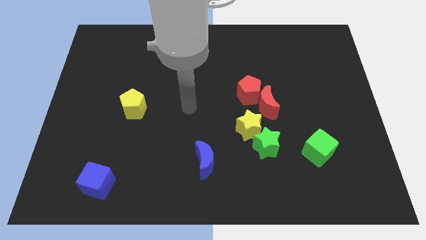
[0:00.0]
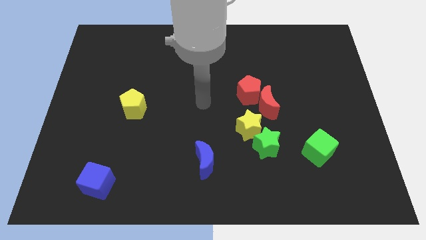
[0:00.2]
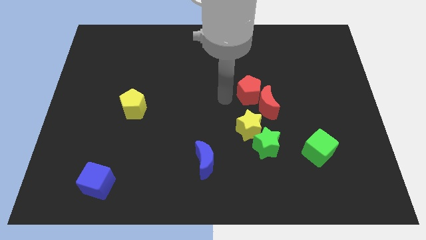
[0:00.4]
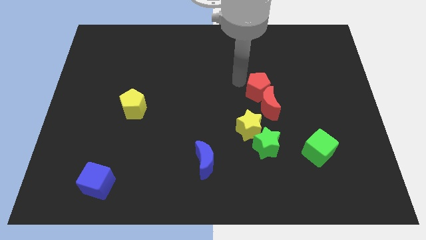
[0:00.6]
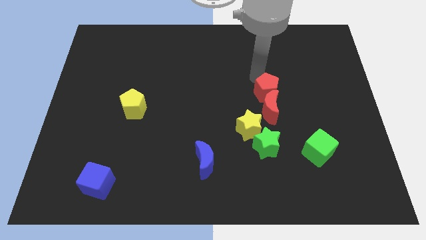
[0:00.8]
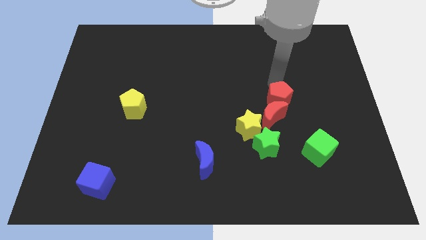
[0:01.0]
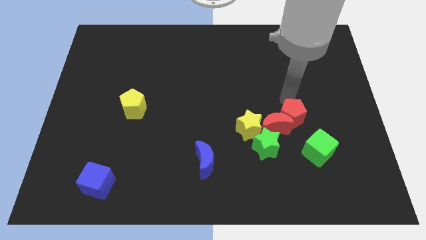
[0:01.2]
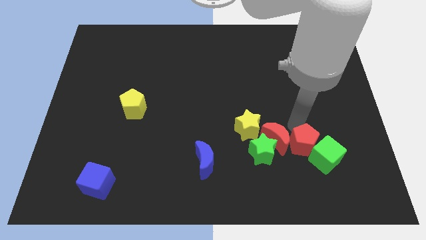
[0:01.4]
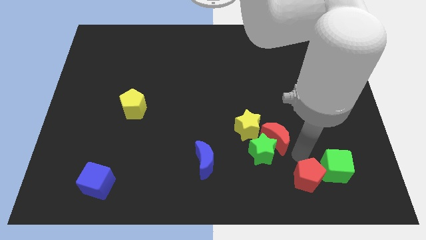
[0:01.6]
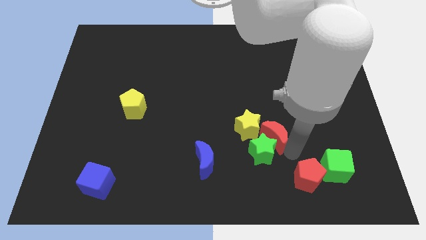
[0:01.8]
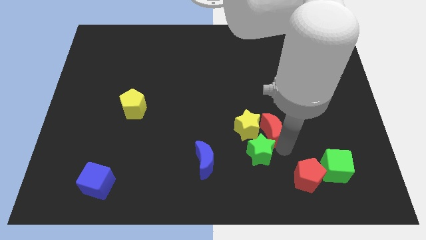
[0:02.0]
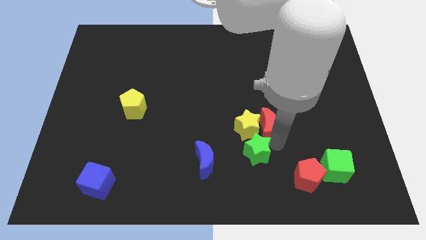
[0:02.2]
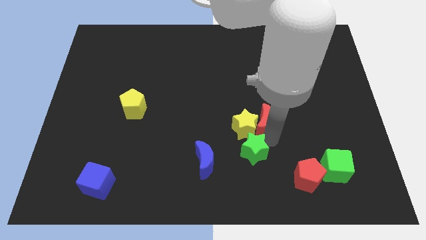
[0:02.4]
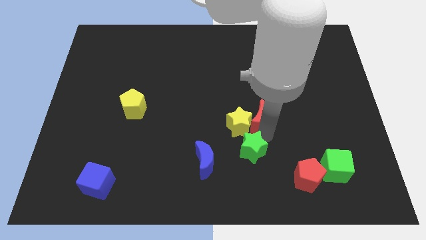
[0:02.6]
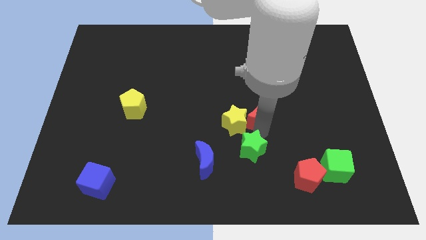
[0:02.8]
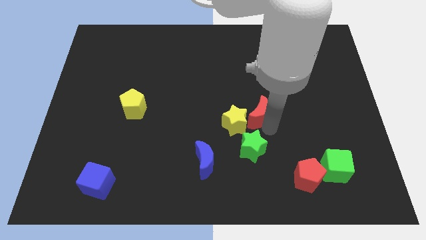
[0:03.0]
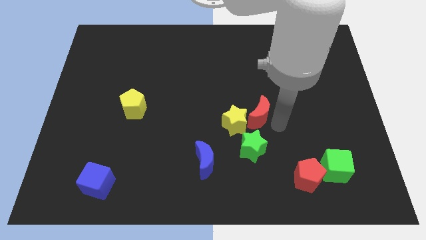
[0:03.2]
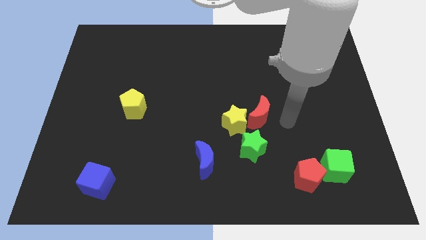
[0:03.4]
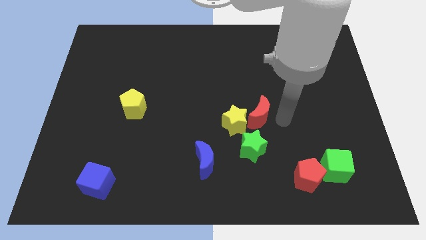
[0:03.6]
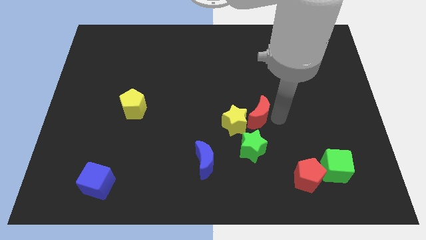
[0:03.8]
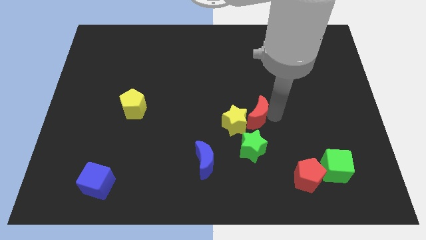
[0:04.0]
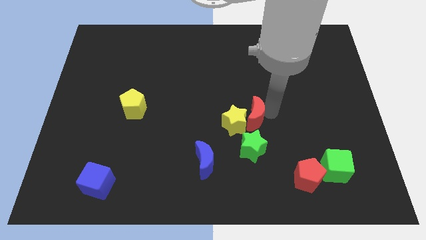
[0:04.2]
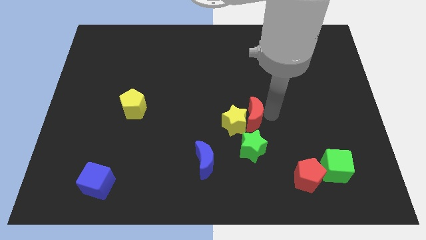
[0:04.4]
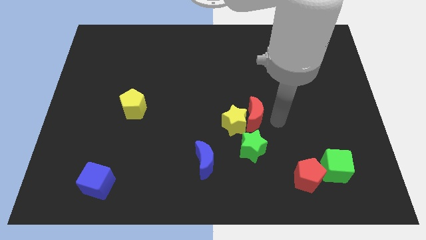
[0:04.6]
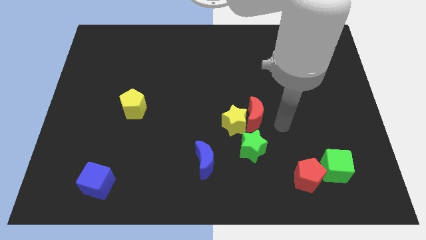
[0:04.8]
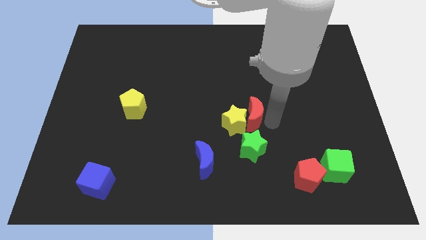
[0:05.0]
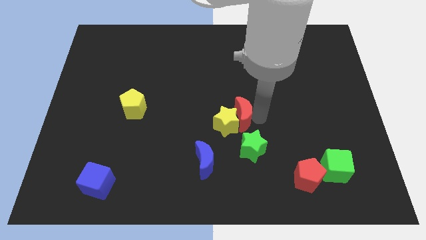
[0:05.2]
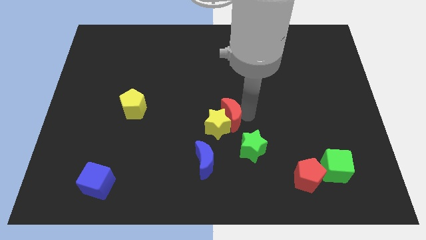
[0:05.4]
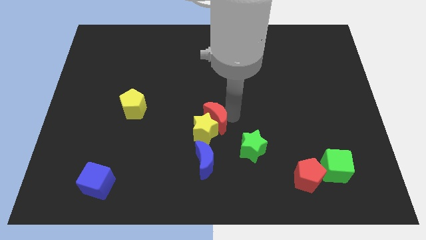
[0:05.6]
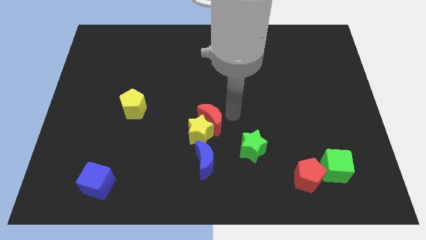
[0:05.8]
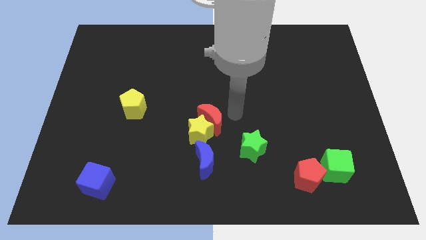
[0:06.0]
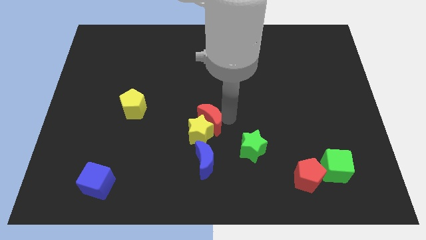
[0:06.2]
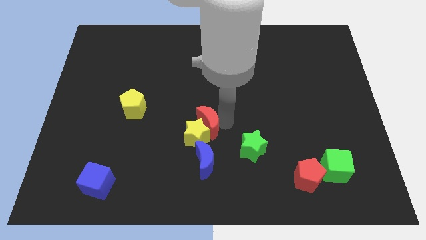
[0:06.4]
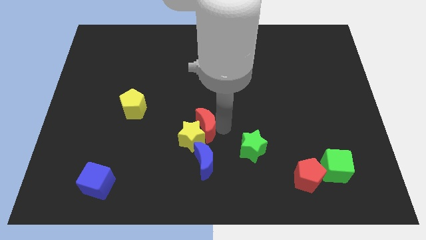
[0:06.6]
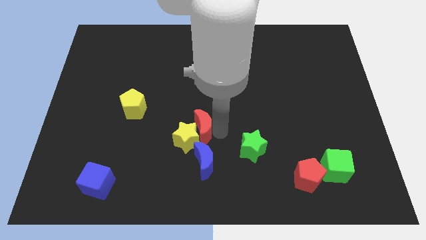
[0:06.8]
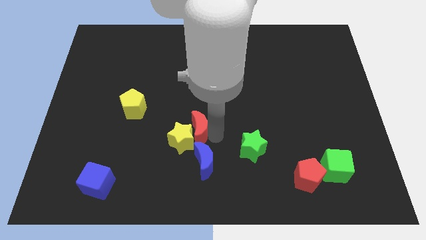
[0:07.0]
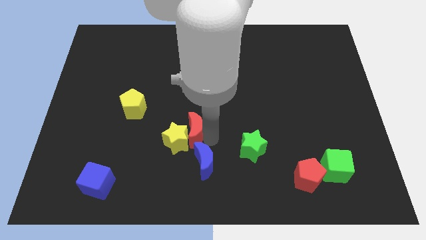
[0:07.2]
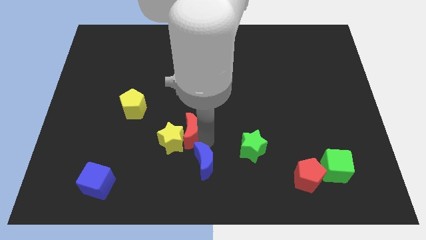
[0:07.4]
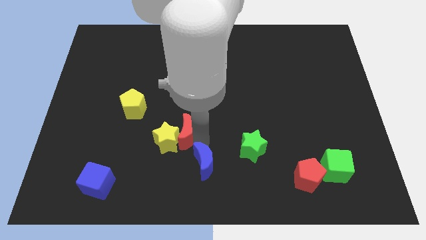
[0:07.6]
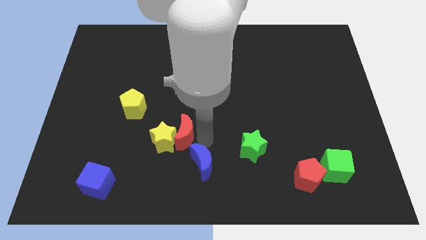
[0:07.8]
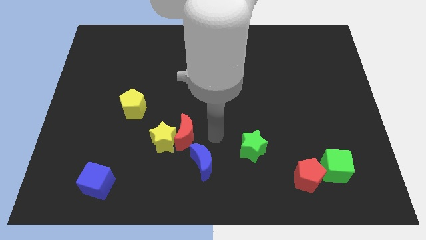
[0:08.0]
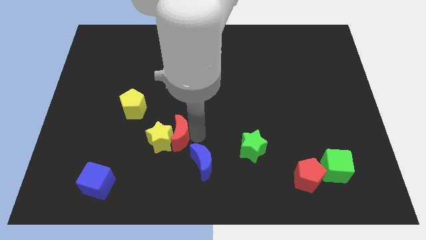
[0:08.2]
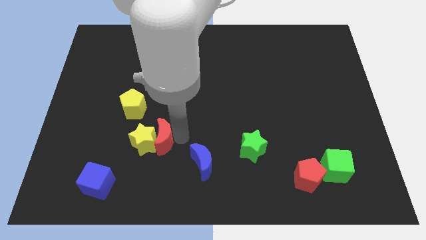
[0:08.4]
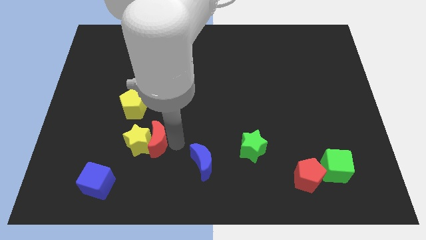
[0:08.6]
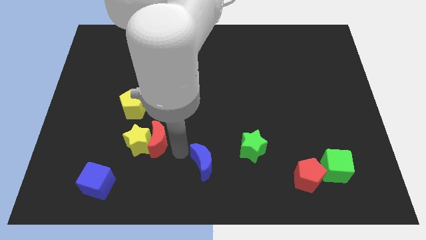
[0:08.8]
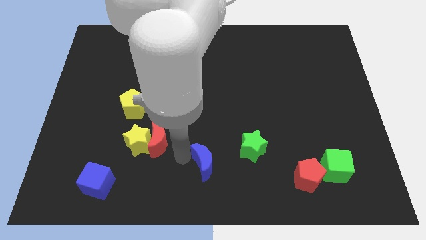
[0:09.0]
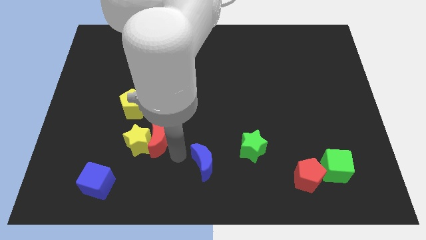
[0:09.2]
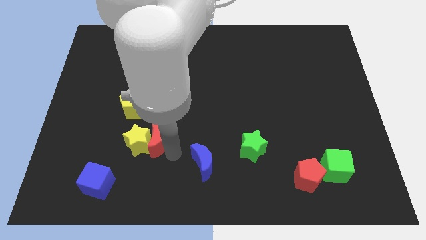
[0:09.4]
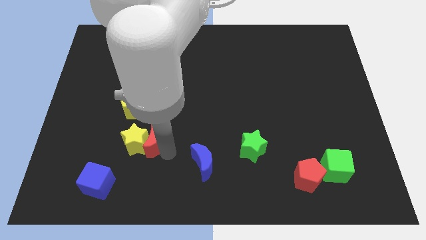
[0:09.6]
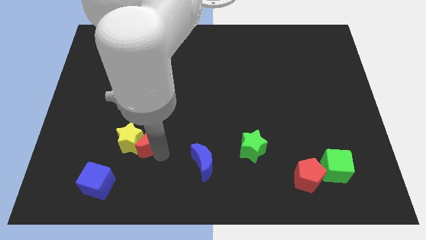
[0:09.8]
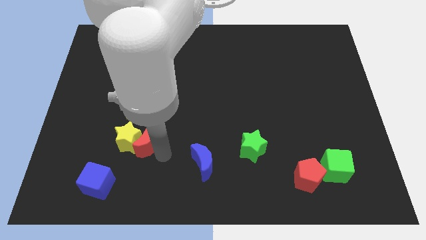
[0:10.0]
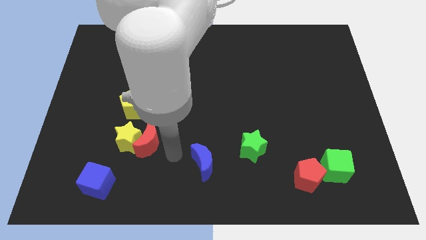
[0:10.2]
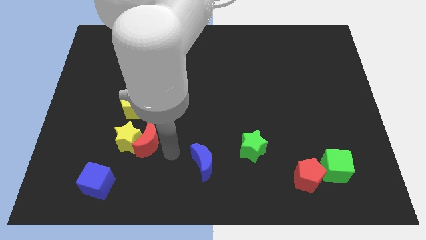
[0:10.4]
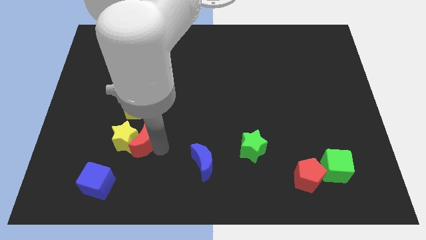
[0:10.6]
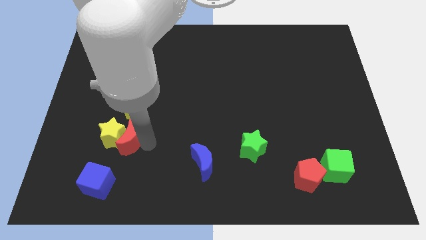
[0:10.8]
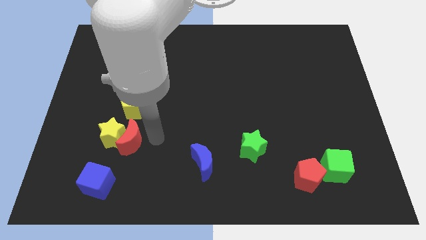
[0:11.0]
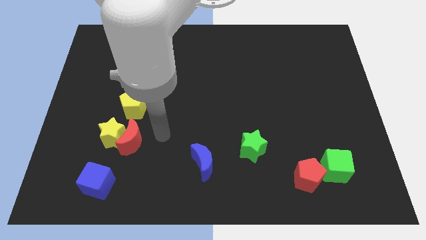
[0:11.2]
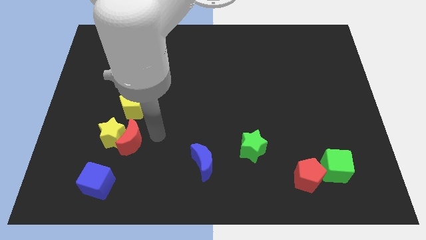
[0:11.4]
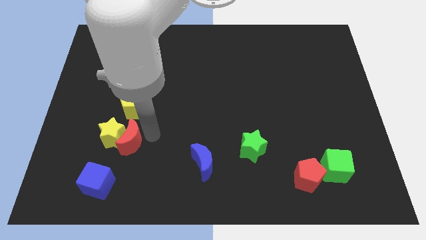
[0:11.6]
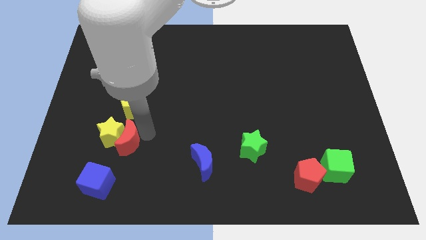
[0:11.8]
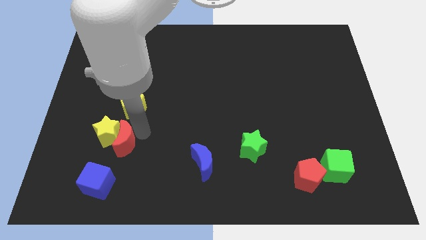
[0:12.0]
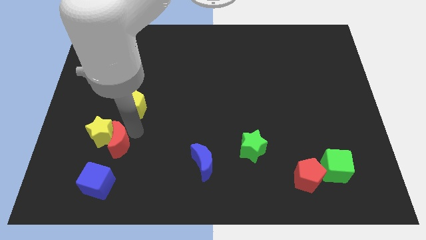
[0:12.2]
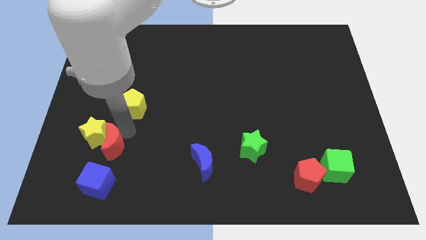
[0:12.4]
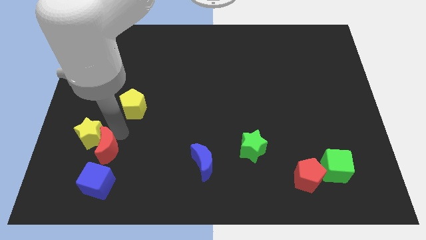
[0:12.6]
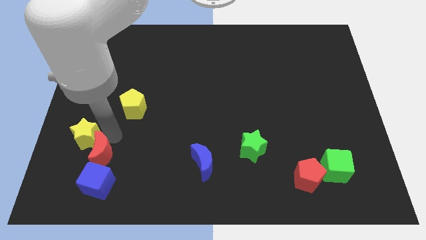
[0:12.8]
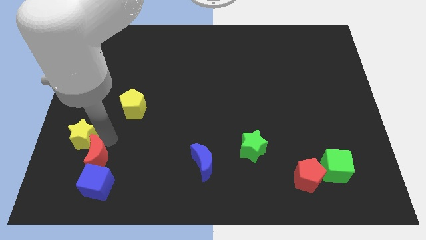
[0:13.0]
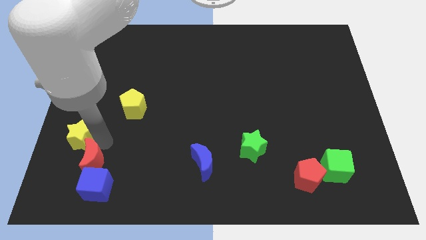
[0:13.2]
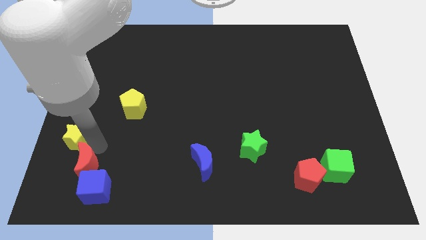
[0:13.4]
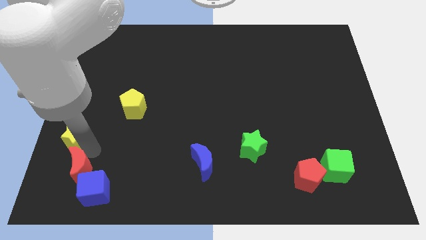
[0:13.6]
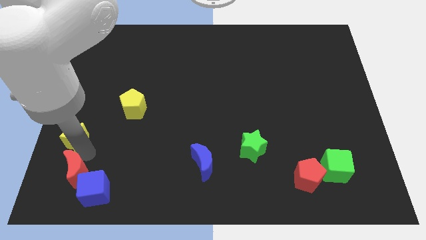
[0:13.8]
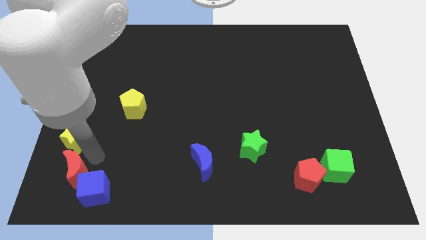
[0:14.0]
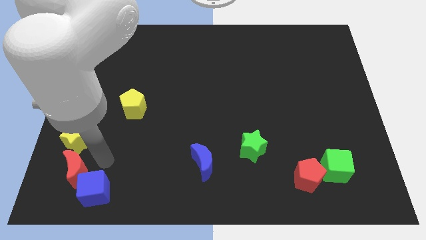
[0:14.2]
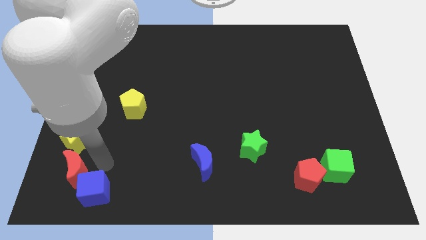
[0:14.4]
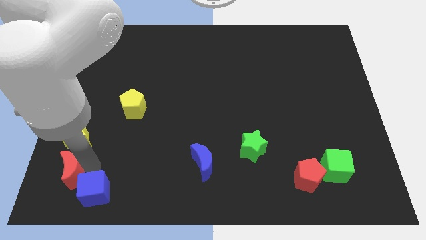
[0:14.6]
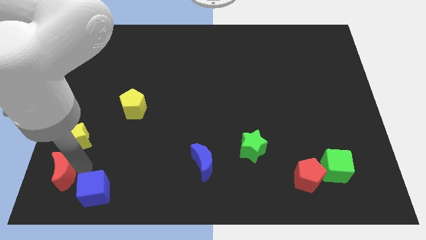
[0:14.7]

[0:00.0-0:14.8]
push the red moon to the lower left corner
